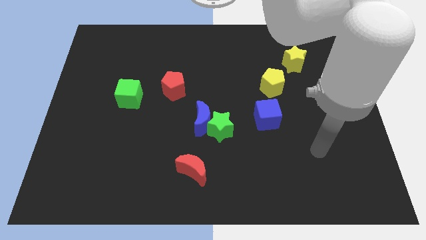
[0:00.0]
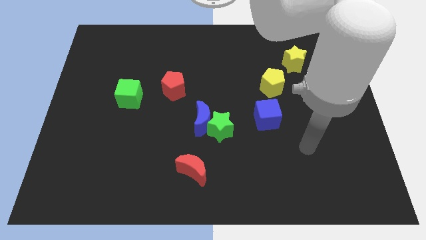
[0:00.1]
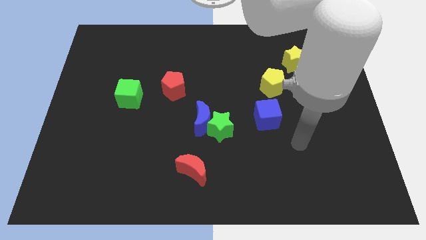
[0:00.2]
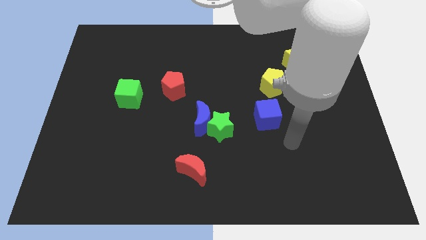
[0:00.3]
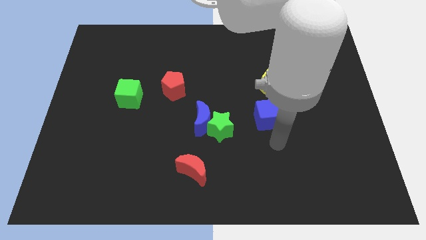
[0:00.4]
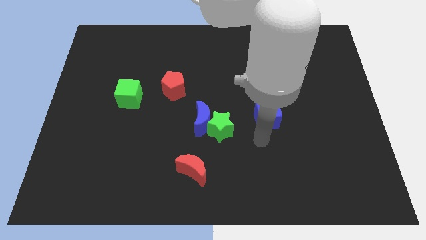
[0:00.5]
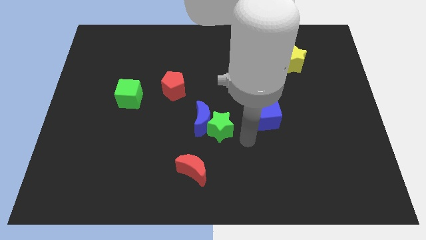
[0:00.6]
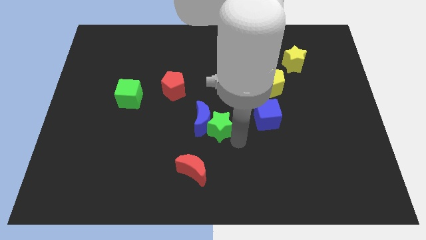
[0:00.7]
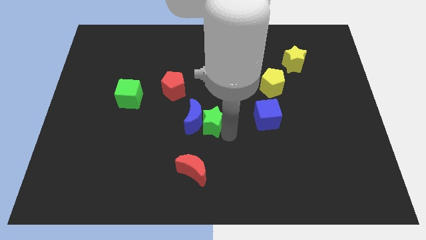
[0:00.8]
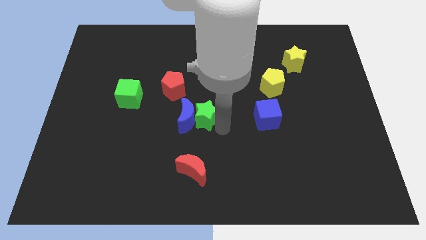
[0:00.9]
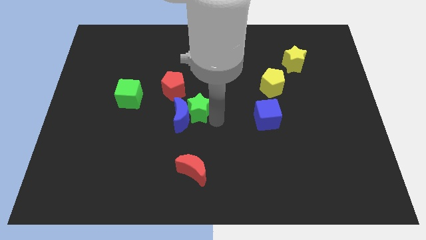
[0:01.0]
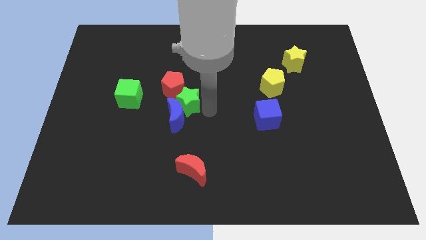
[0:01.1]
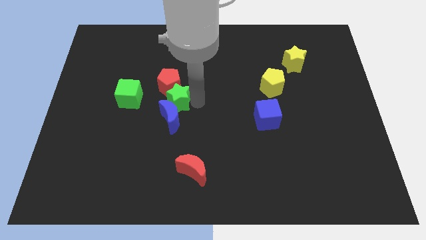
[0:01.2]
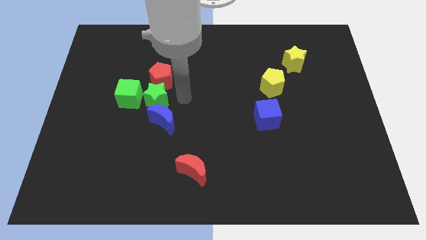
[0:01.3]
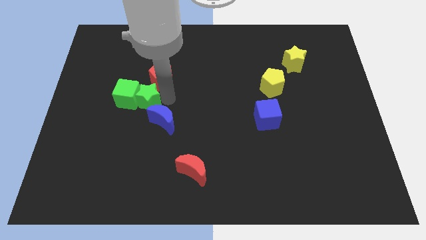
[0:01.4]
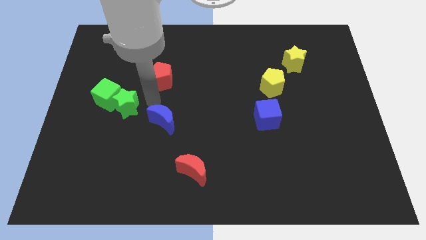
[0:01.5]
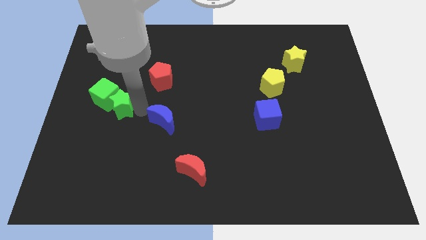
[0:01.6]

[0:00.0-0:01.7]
separate the blue moon from the green star

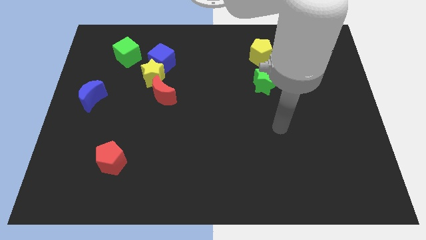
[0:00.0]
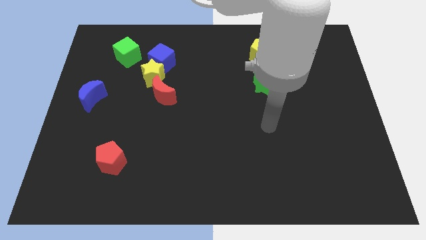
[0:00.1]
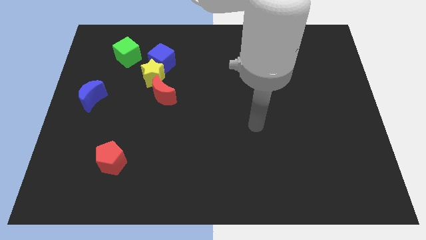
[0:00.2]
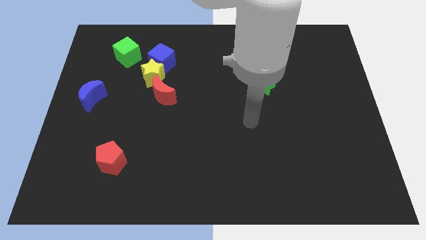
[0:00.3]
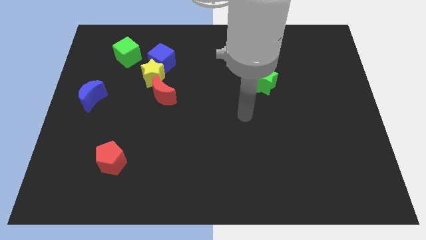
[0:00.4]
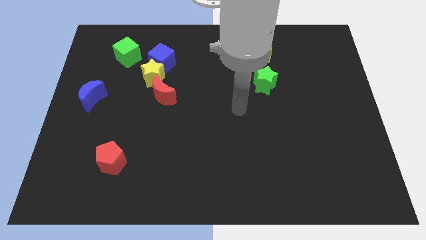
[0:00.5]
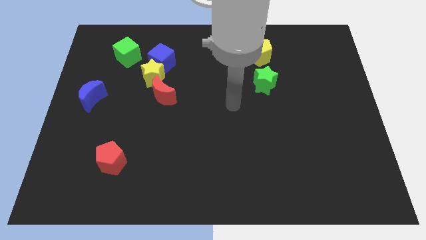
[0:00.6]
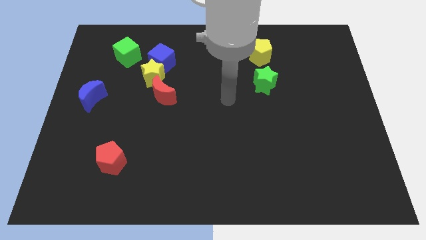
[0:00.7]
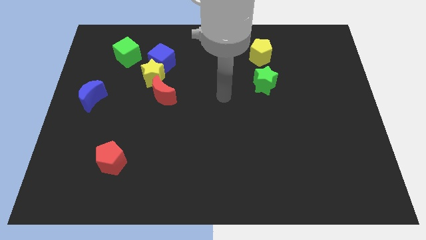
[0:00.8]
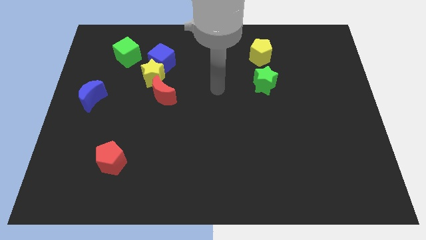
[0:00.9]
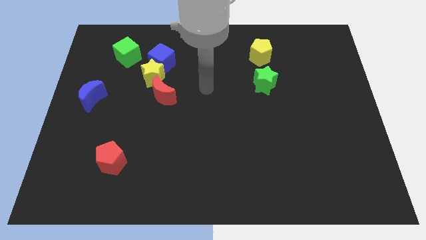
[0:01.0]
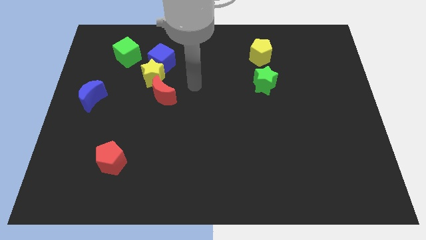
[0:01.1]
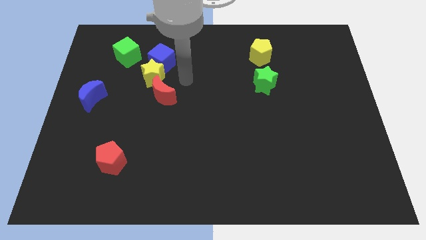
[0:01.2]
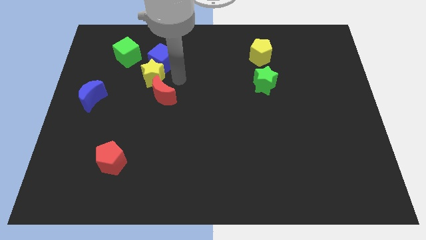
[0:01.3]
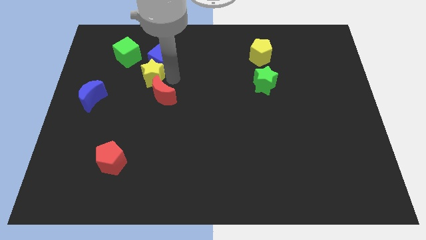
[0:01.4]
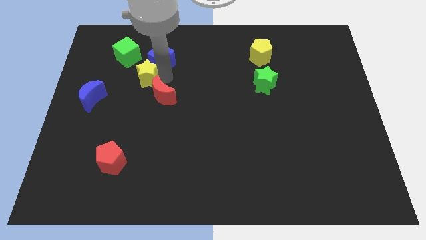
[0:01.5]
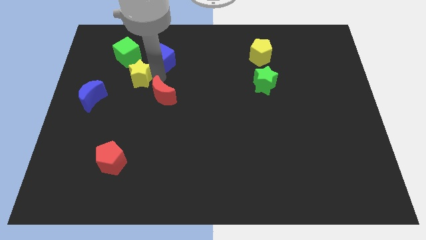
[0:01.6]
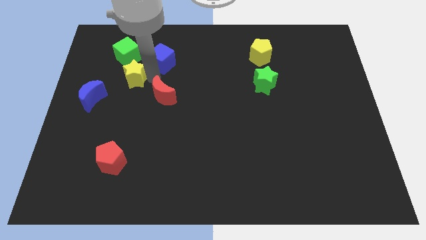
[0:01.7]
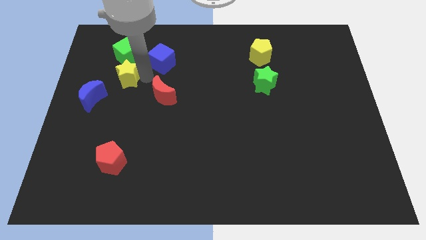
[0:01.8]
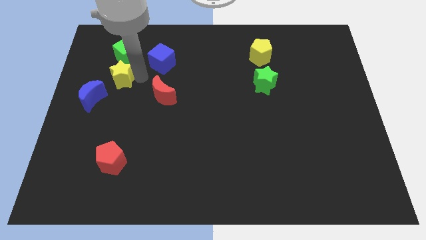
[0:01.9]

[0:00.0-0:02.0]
pull the yellow star apart from the blue cube and red moon

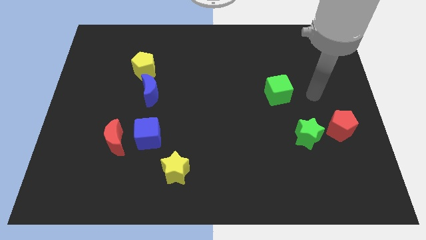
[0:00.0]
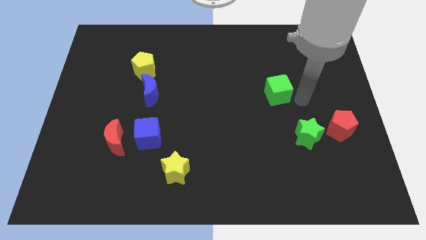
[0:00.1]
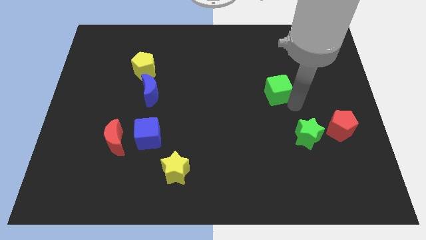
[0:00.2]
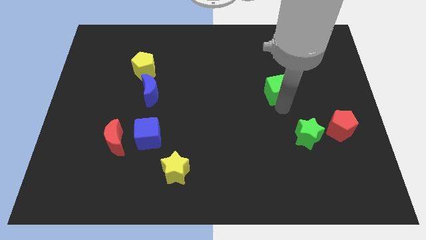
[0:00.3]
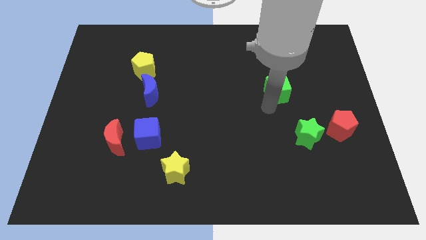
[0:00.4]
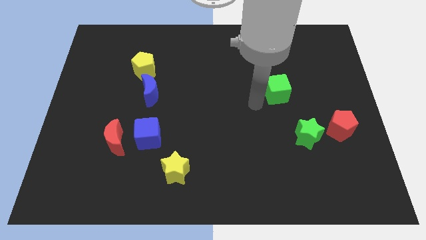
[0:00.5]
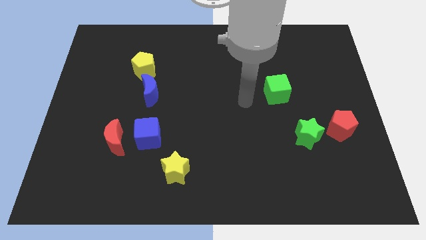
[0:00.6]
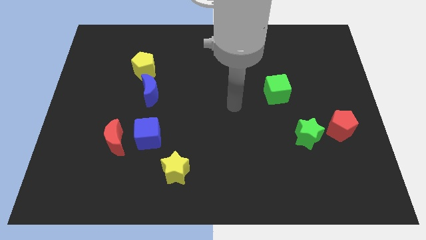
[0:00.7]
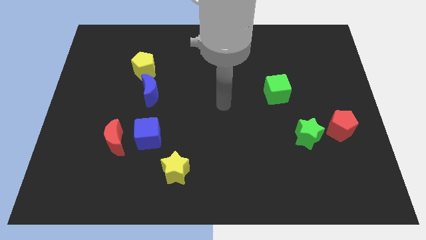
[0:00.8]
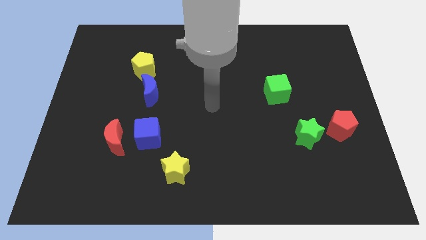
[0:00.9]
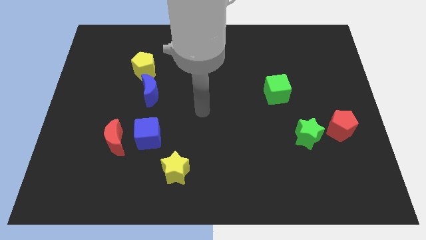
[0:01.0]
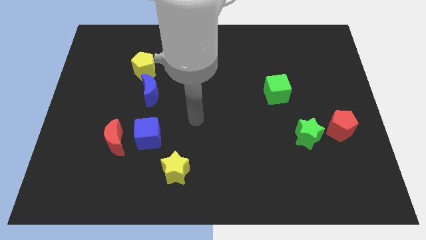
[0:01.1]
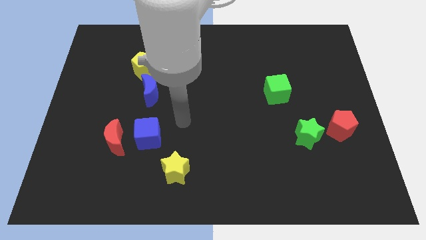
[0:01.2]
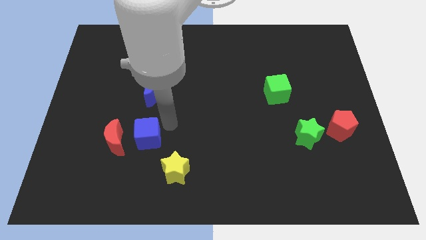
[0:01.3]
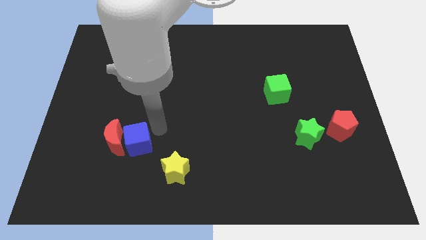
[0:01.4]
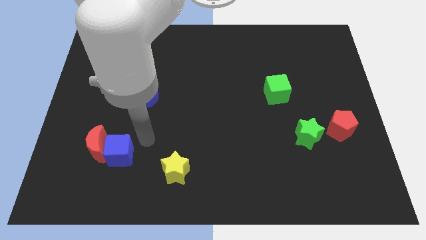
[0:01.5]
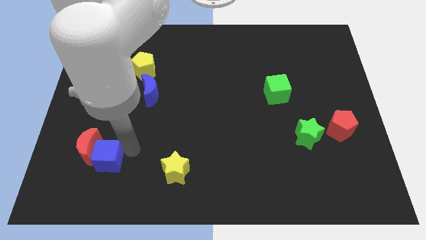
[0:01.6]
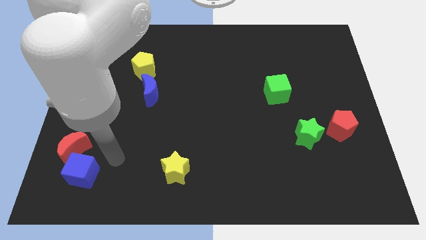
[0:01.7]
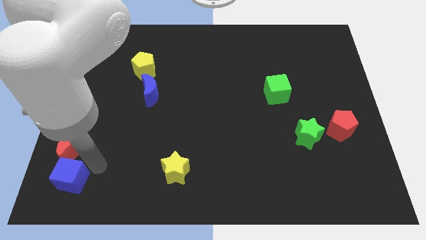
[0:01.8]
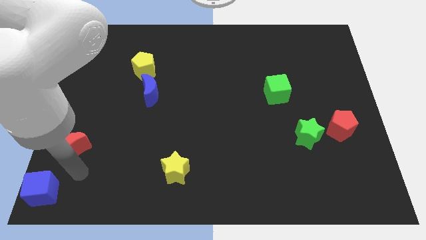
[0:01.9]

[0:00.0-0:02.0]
separate the red moon from the blue cube

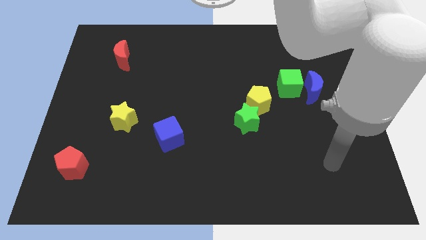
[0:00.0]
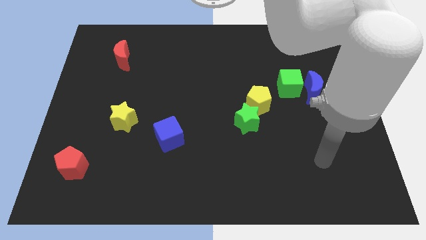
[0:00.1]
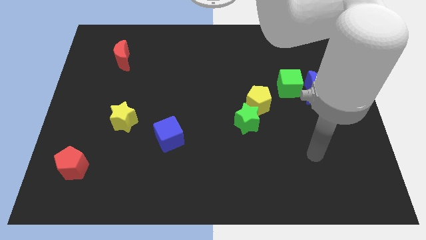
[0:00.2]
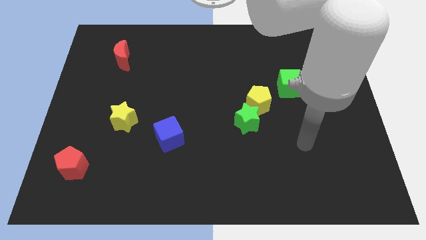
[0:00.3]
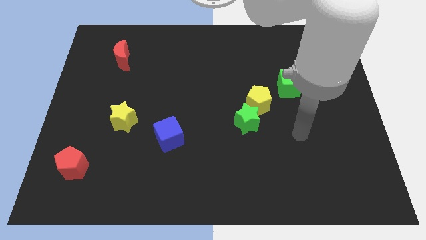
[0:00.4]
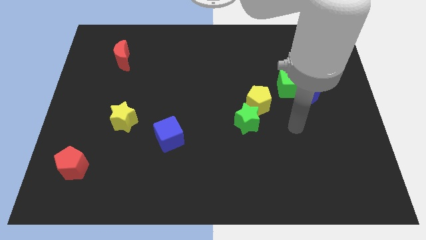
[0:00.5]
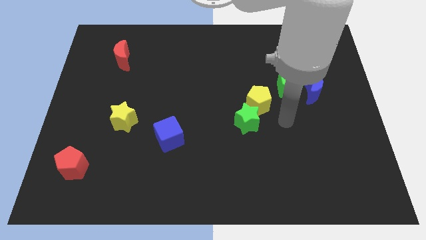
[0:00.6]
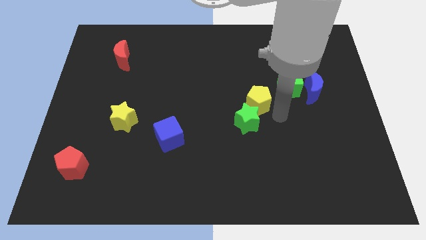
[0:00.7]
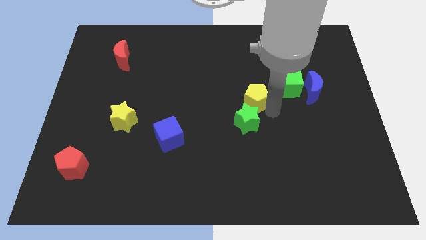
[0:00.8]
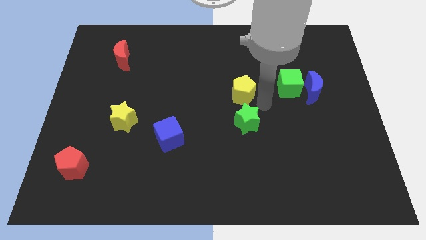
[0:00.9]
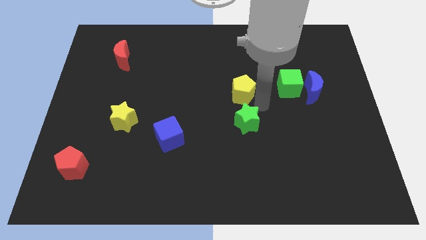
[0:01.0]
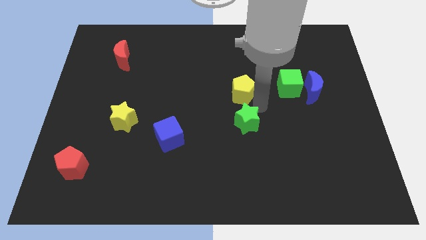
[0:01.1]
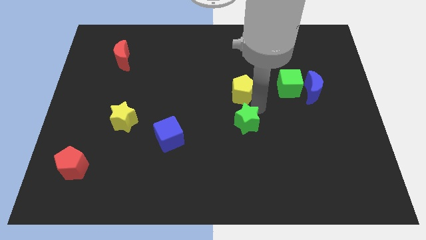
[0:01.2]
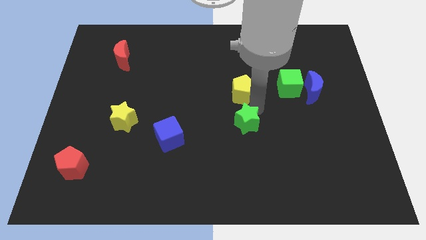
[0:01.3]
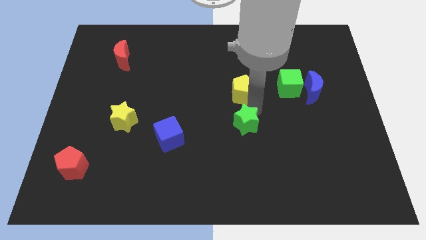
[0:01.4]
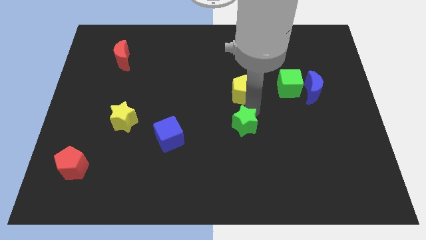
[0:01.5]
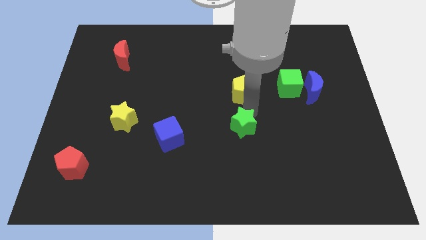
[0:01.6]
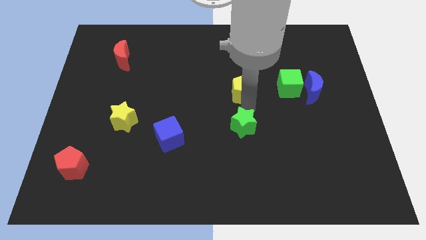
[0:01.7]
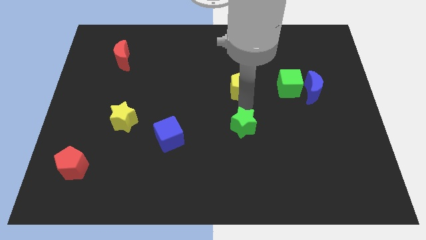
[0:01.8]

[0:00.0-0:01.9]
pull the green star apart from the yellow pentagon

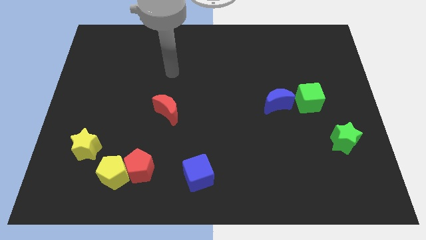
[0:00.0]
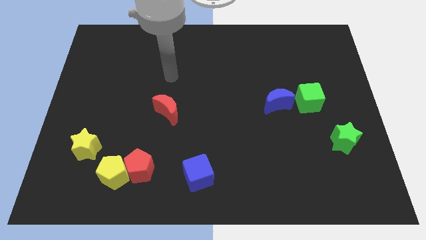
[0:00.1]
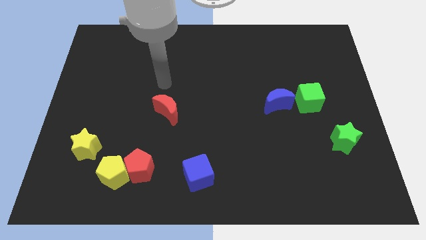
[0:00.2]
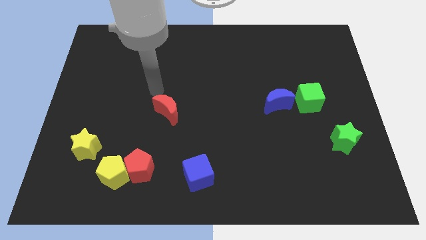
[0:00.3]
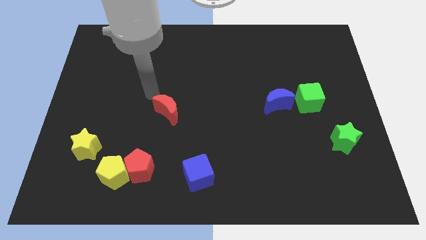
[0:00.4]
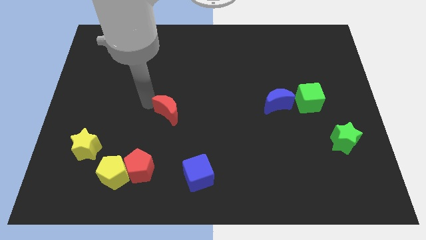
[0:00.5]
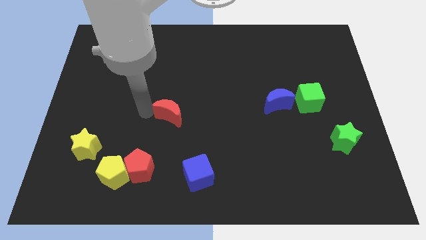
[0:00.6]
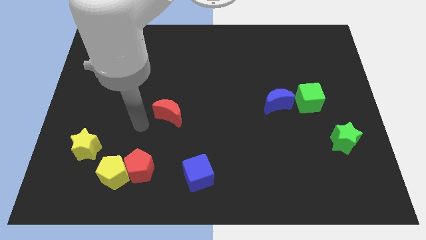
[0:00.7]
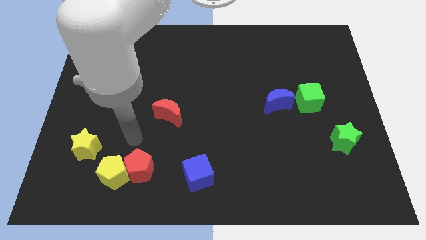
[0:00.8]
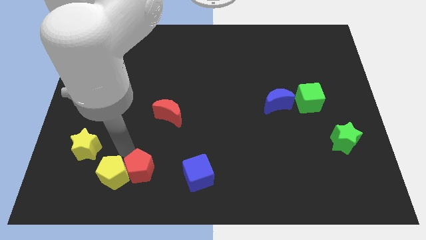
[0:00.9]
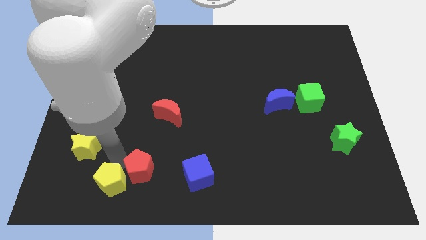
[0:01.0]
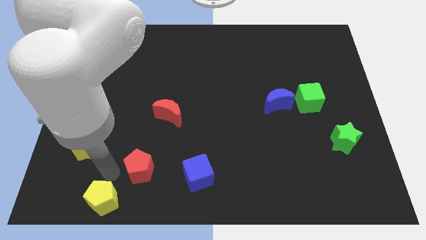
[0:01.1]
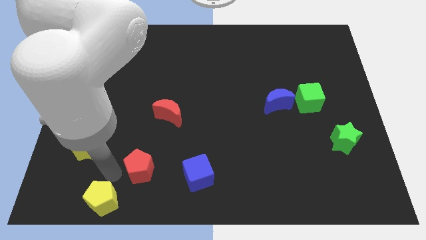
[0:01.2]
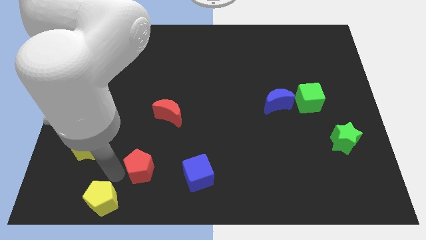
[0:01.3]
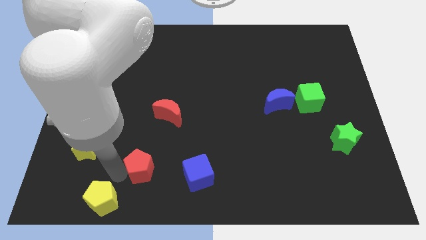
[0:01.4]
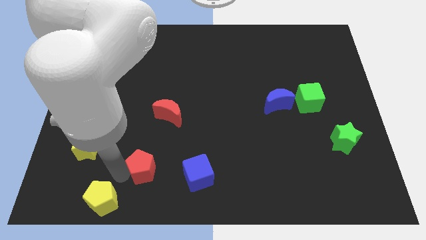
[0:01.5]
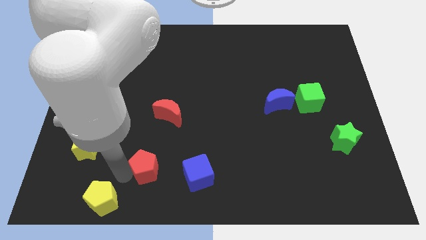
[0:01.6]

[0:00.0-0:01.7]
separate the red pentagon from the yellow pentagon
